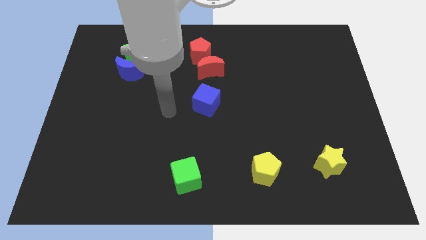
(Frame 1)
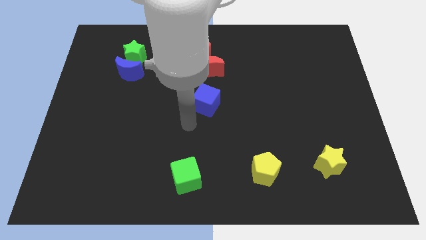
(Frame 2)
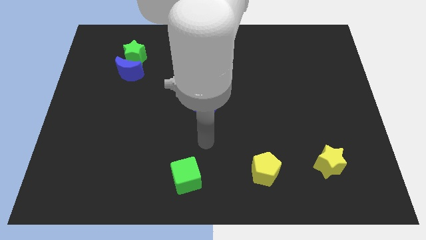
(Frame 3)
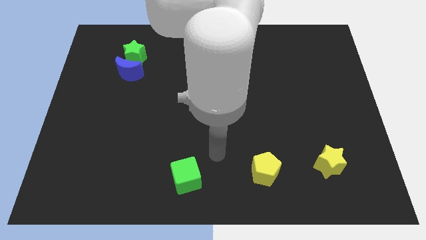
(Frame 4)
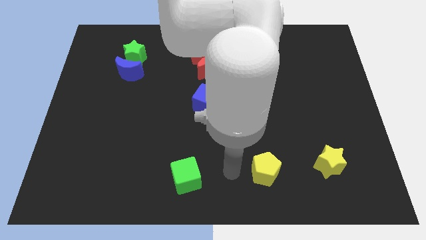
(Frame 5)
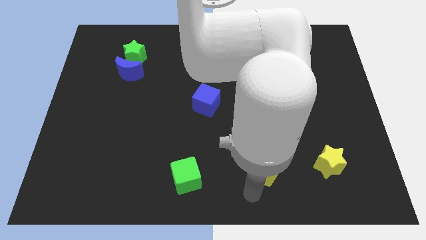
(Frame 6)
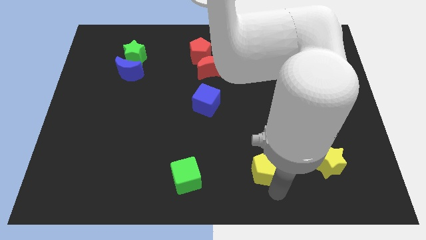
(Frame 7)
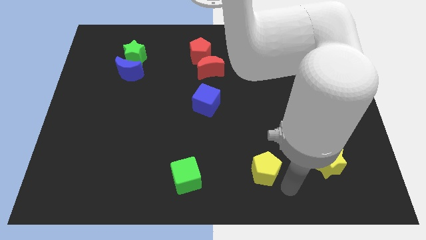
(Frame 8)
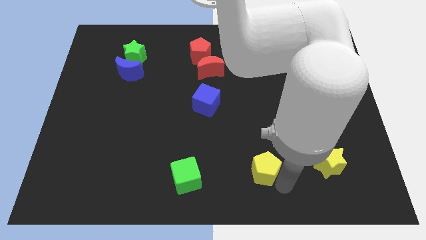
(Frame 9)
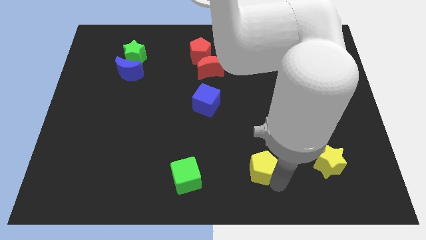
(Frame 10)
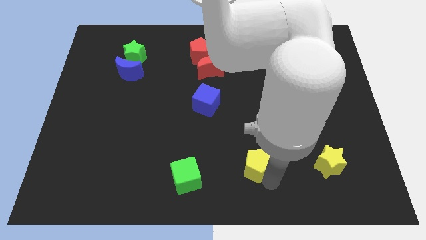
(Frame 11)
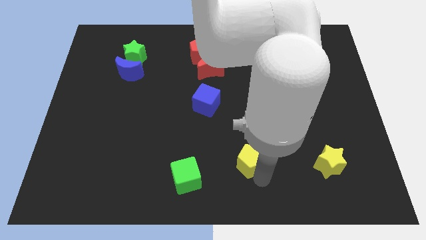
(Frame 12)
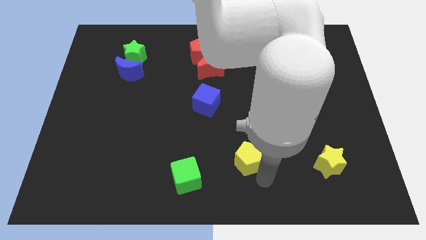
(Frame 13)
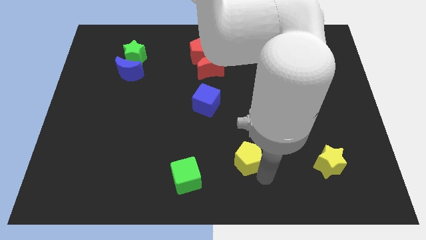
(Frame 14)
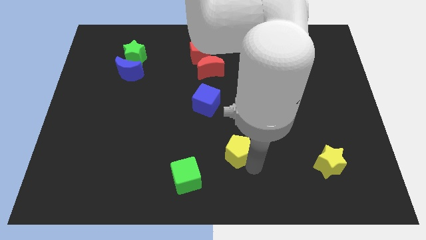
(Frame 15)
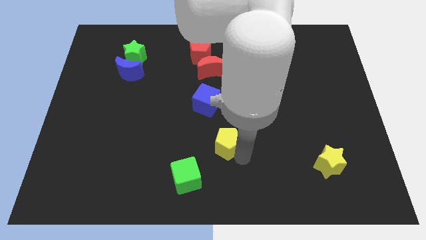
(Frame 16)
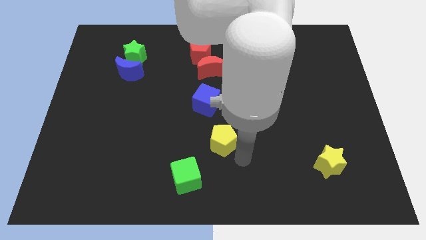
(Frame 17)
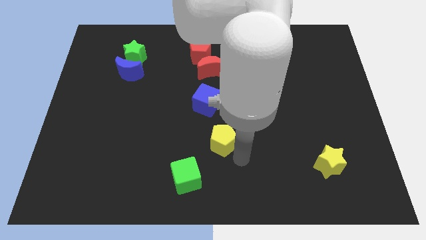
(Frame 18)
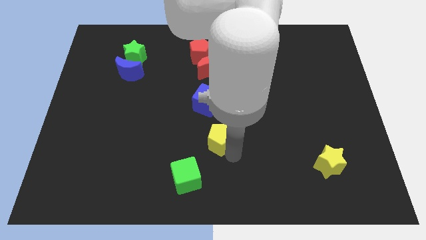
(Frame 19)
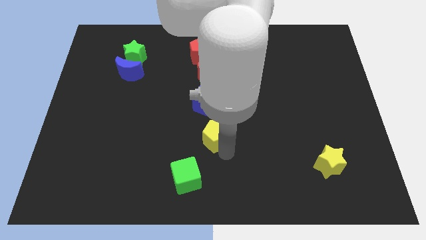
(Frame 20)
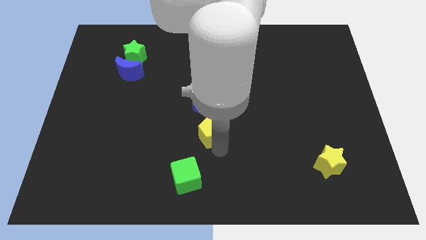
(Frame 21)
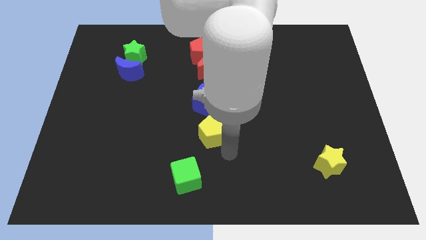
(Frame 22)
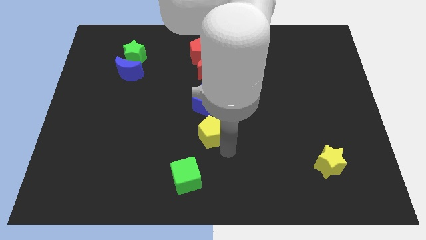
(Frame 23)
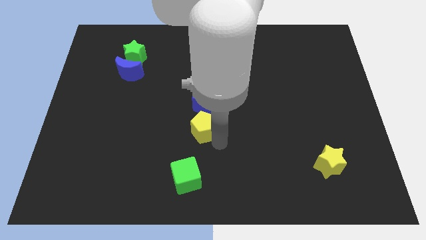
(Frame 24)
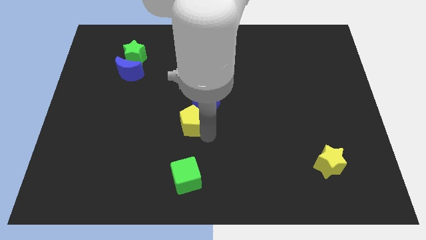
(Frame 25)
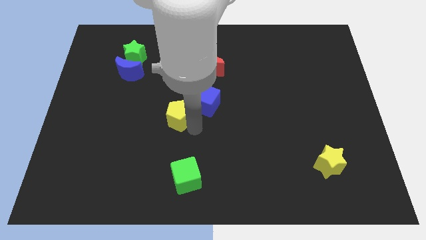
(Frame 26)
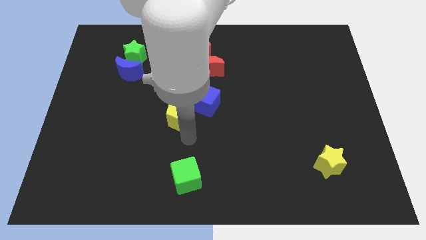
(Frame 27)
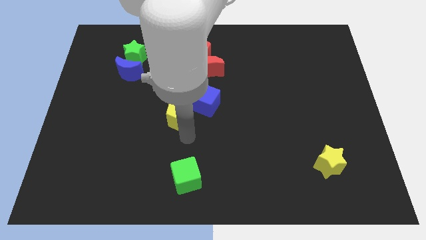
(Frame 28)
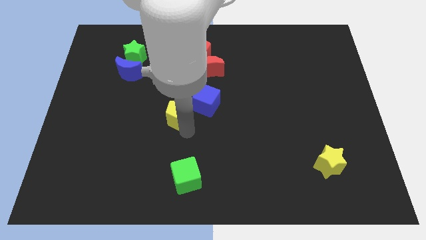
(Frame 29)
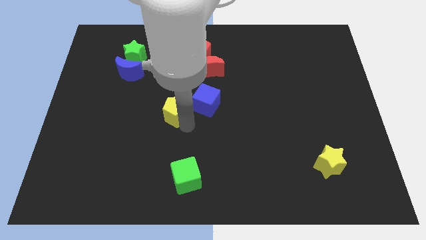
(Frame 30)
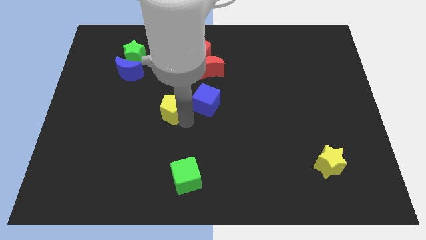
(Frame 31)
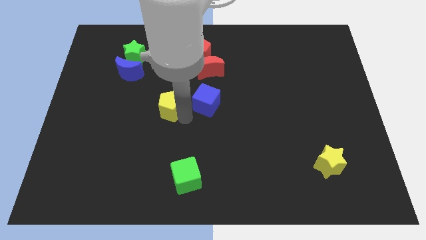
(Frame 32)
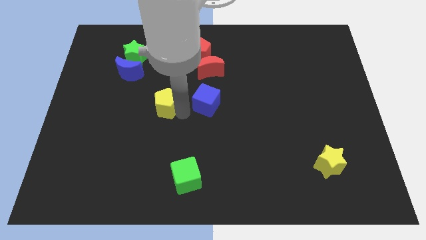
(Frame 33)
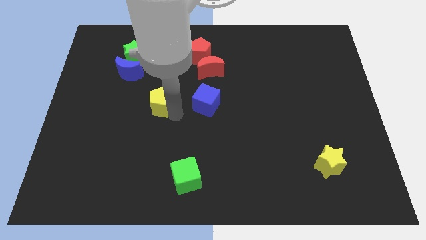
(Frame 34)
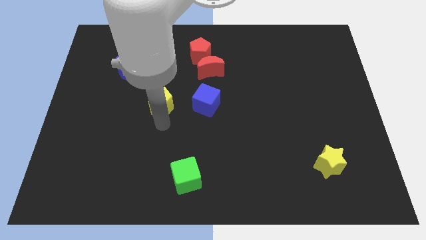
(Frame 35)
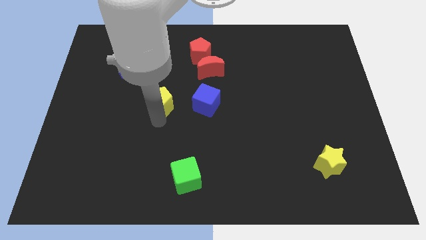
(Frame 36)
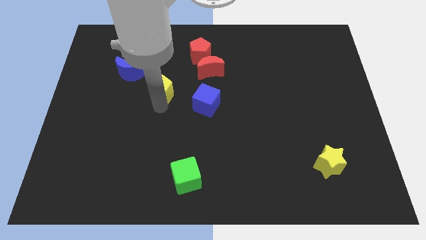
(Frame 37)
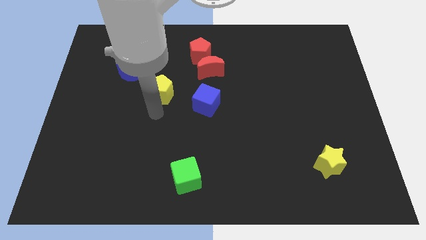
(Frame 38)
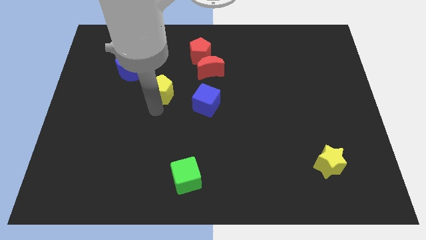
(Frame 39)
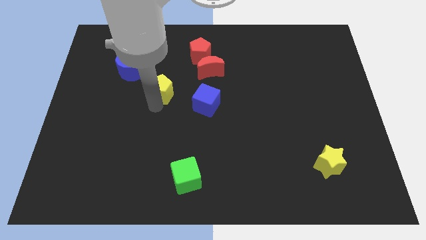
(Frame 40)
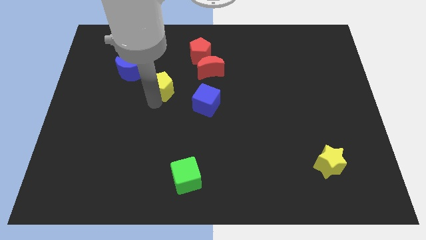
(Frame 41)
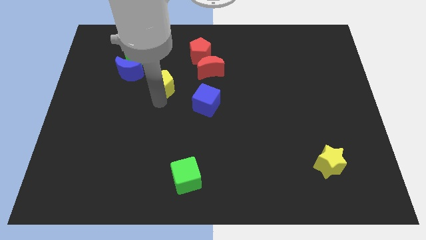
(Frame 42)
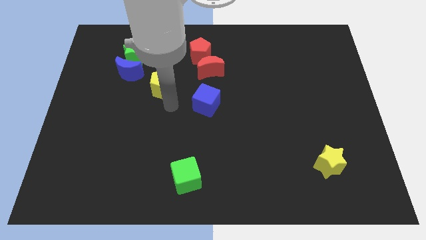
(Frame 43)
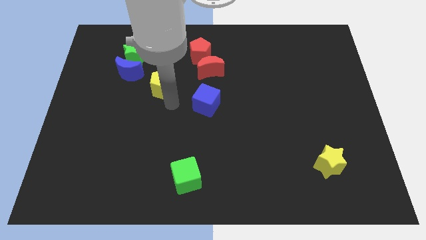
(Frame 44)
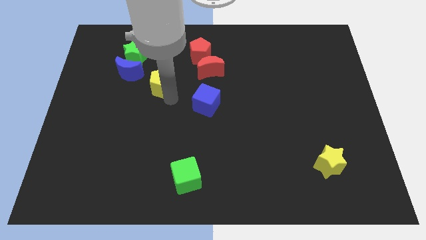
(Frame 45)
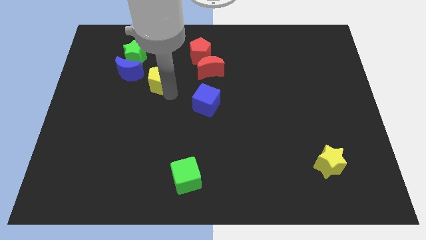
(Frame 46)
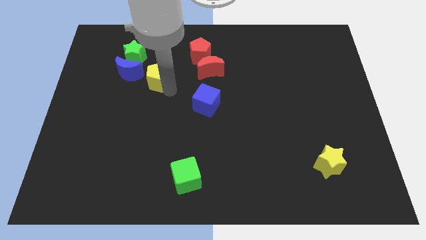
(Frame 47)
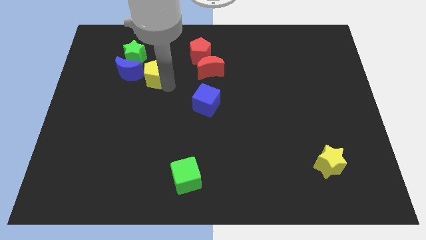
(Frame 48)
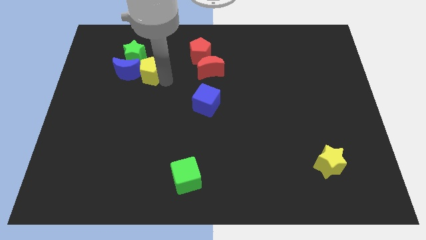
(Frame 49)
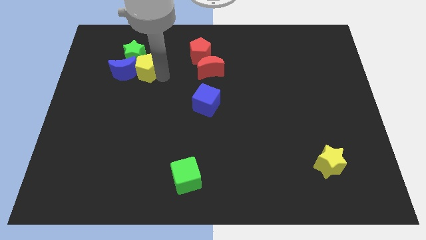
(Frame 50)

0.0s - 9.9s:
put the yellow pentagon close to the green star

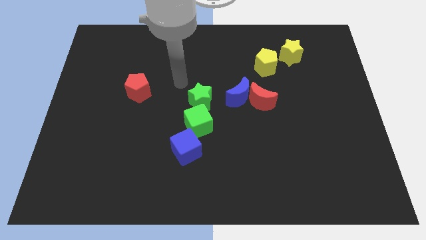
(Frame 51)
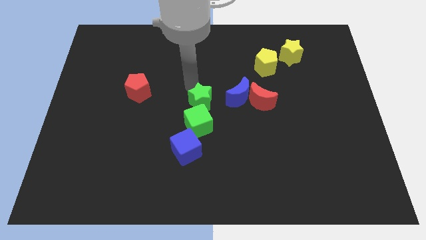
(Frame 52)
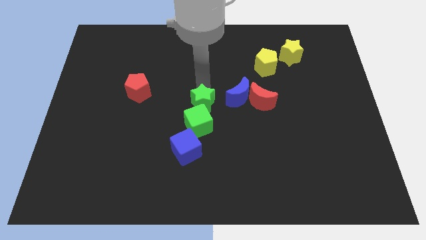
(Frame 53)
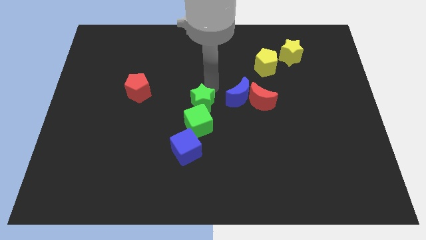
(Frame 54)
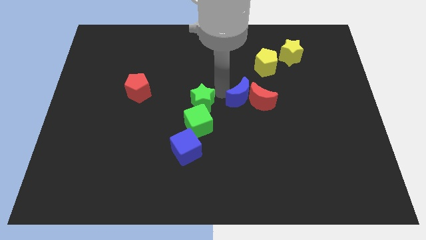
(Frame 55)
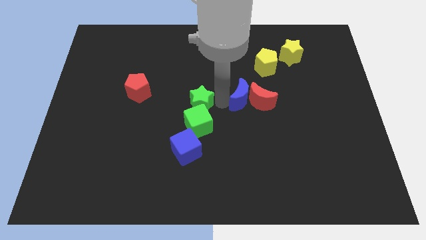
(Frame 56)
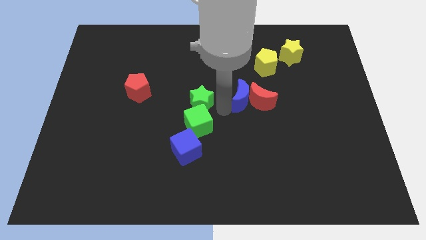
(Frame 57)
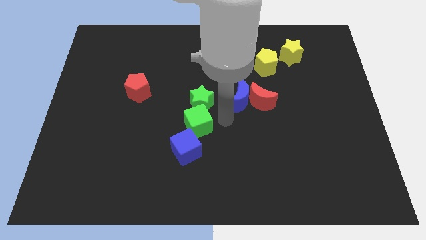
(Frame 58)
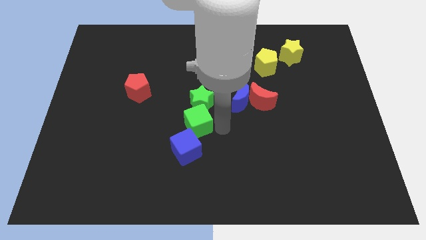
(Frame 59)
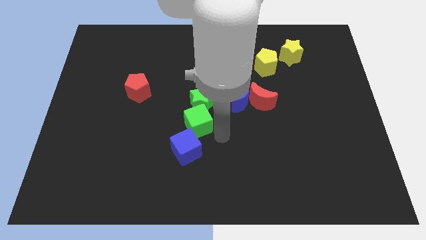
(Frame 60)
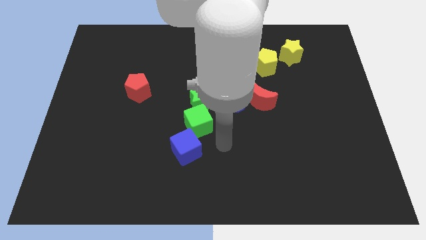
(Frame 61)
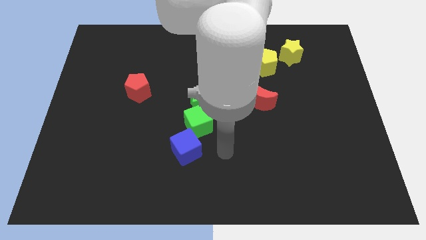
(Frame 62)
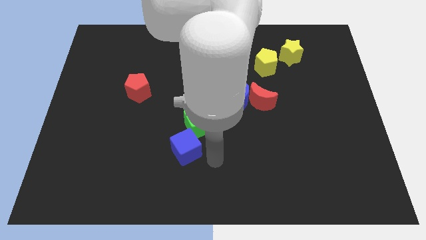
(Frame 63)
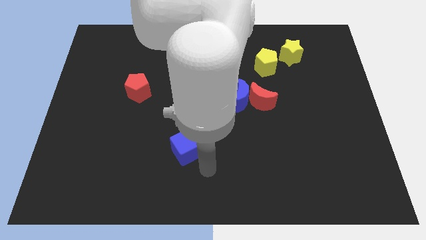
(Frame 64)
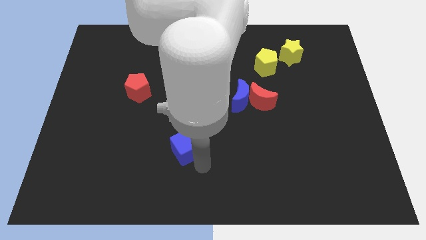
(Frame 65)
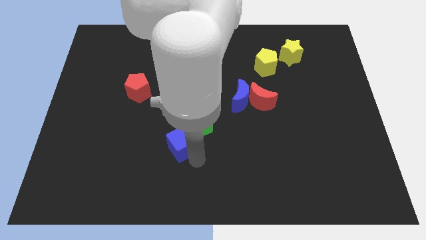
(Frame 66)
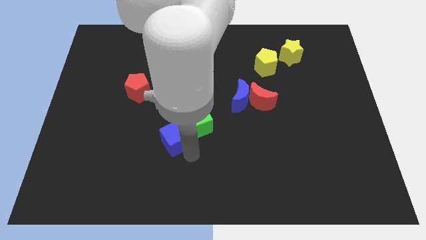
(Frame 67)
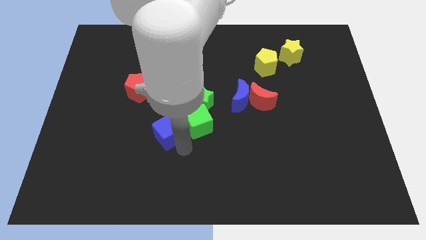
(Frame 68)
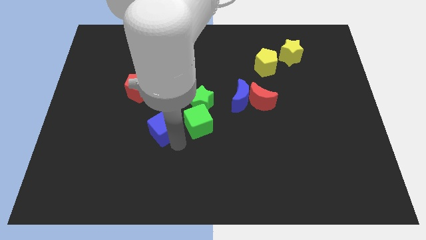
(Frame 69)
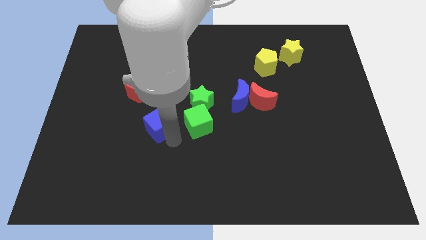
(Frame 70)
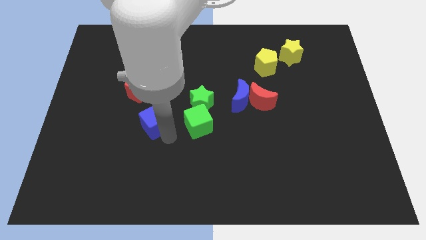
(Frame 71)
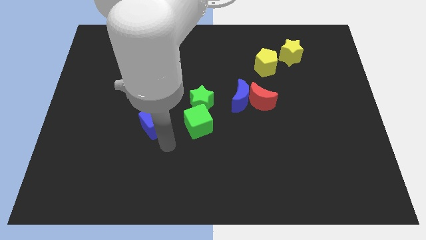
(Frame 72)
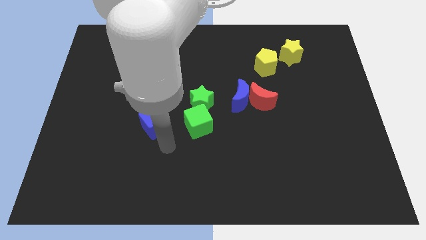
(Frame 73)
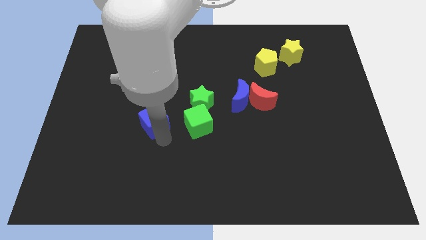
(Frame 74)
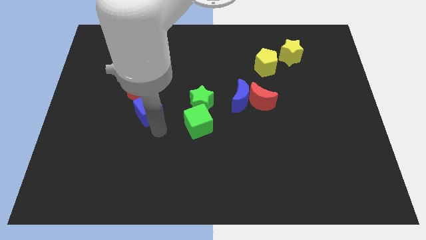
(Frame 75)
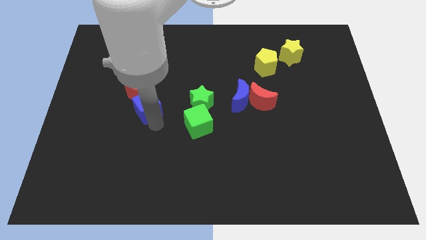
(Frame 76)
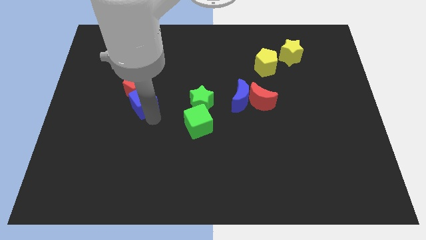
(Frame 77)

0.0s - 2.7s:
put the blue cube next to the red pentagon
